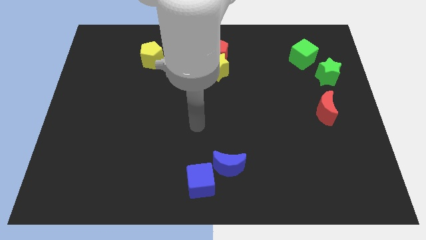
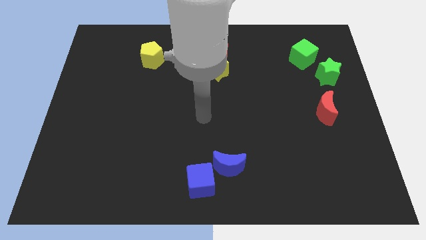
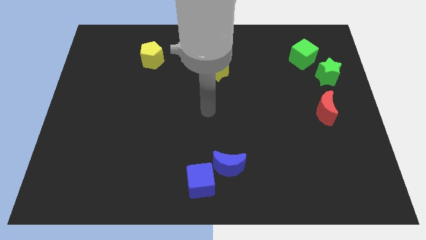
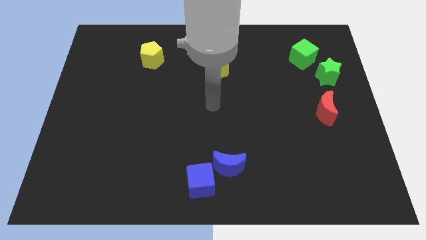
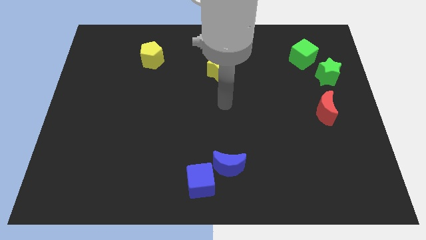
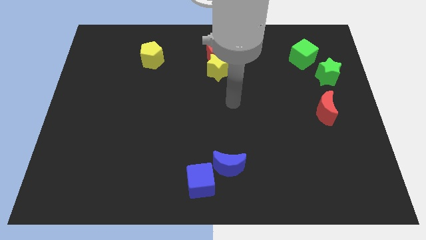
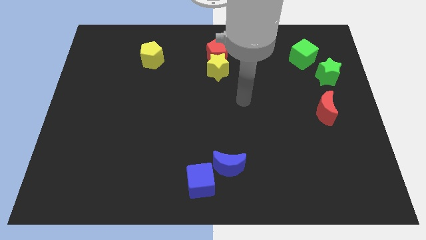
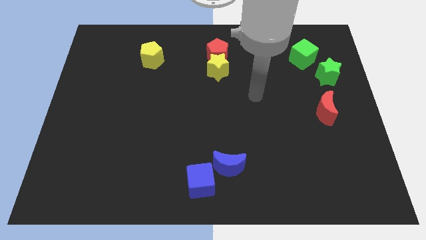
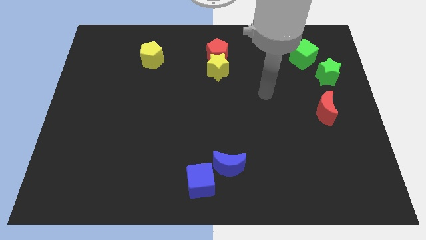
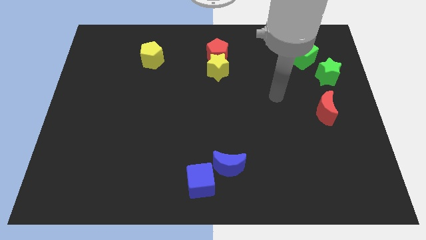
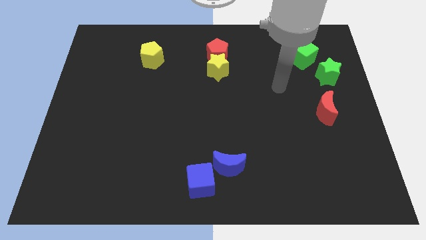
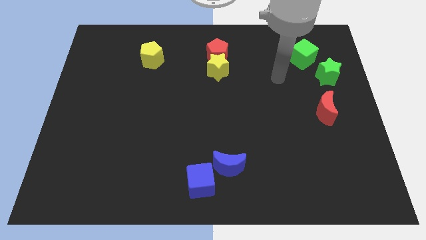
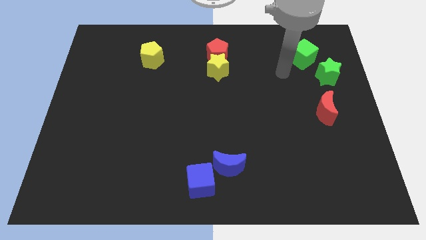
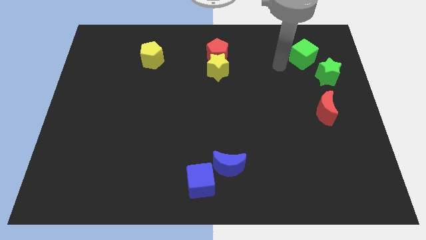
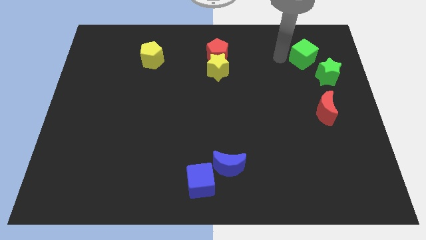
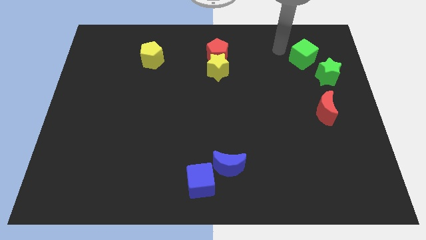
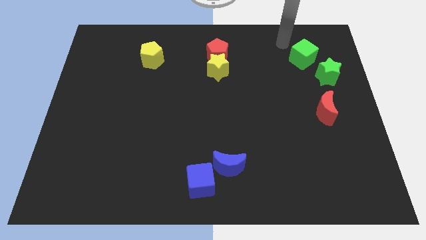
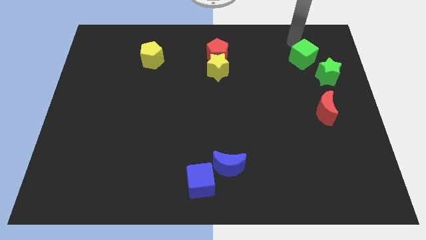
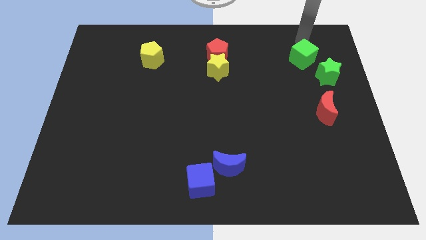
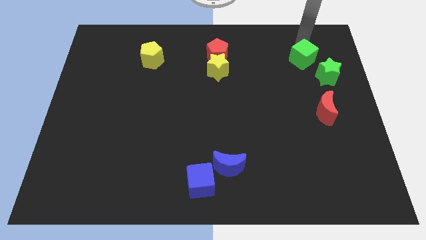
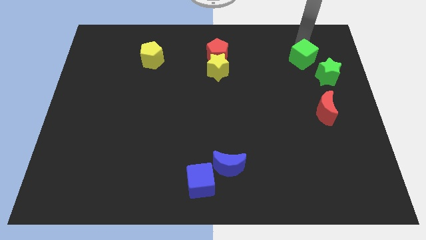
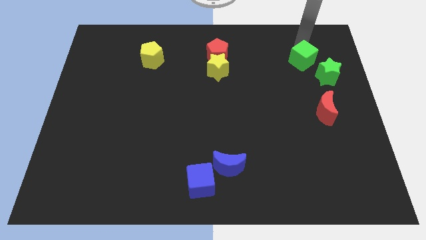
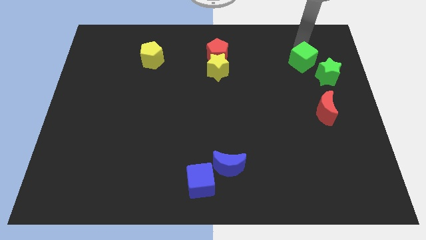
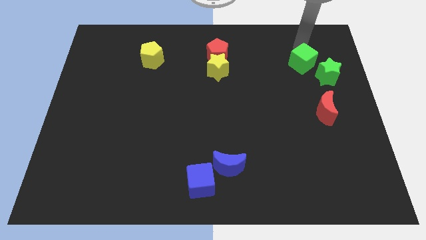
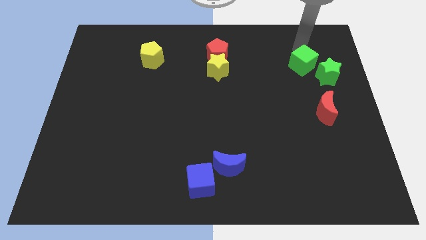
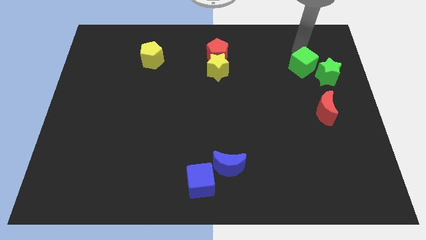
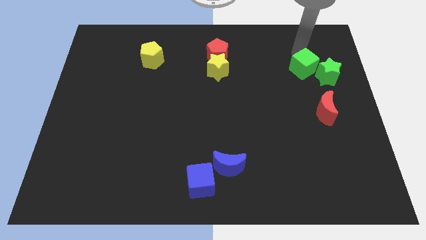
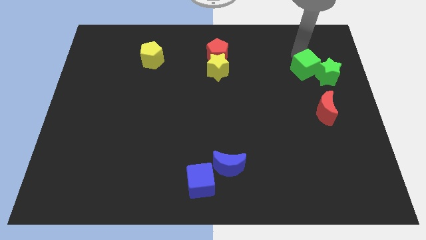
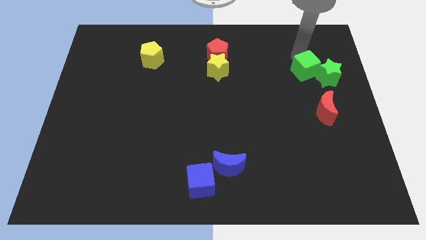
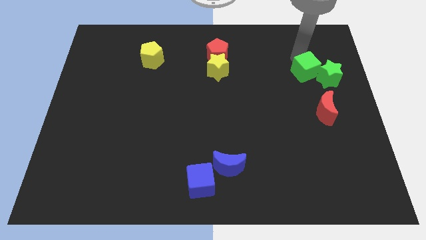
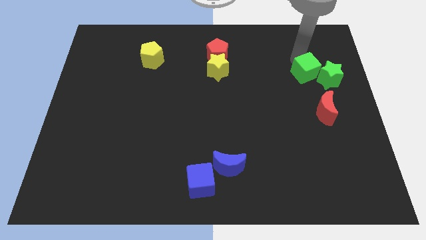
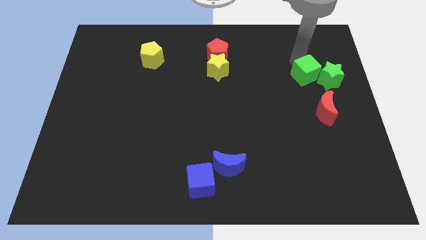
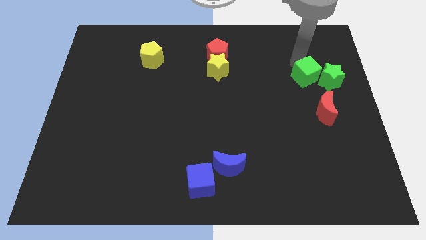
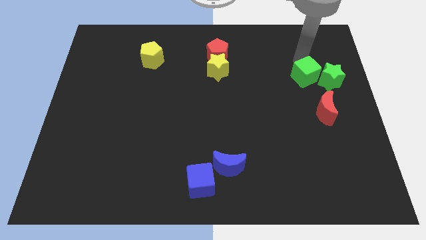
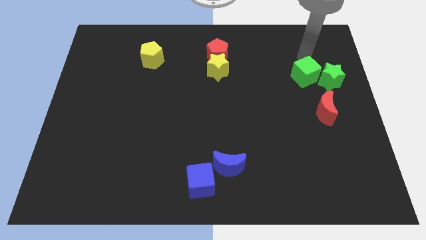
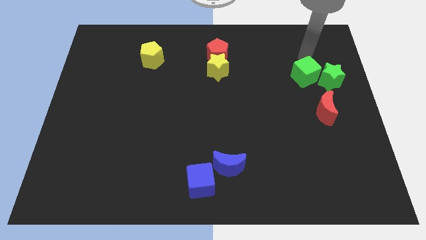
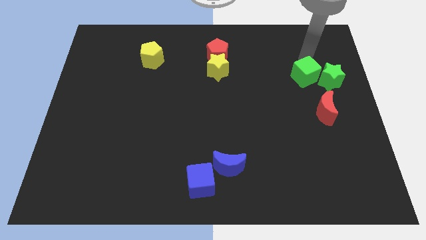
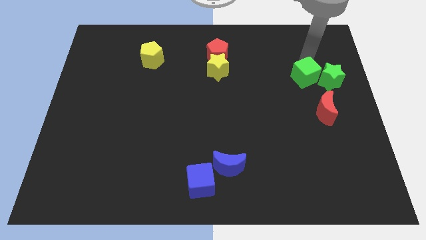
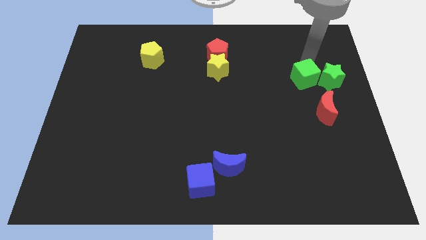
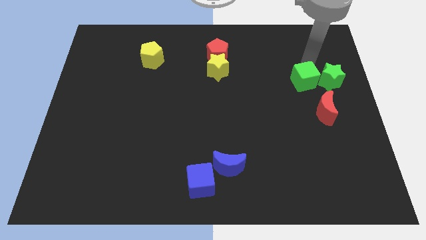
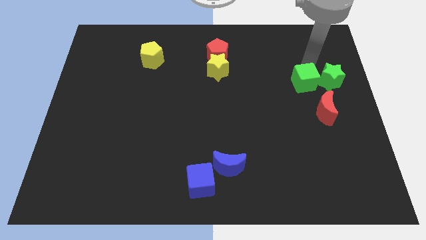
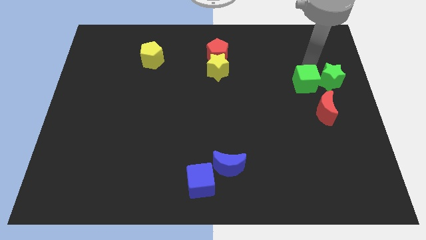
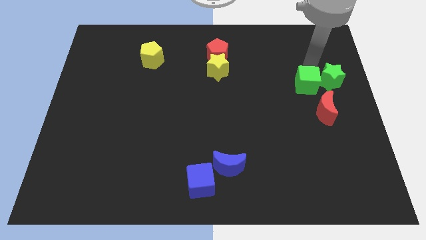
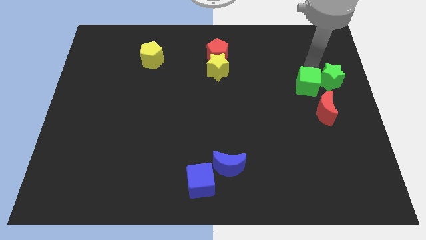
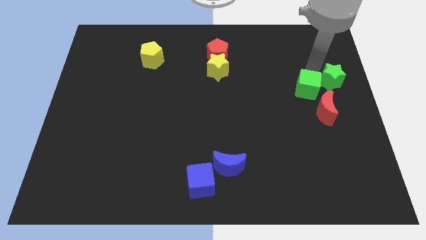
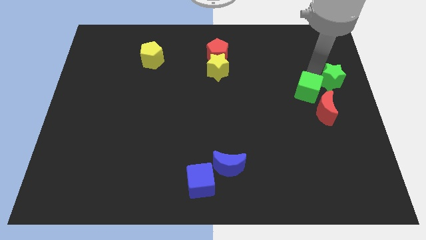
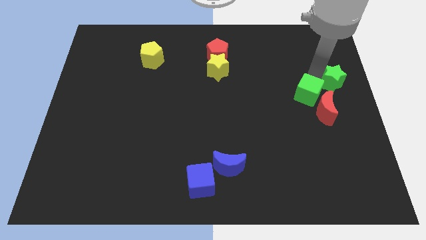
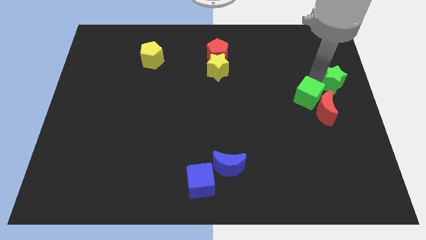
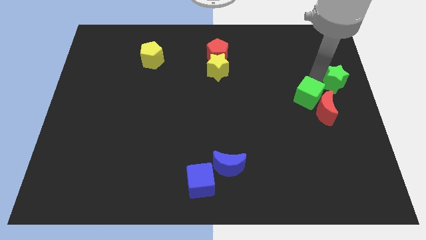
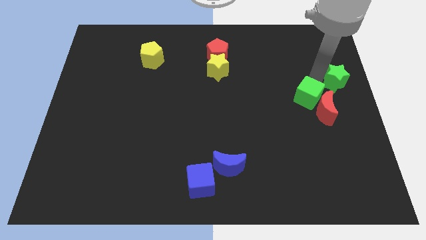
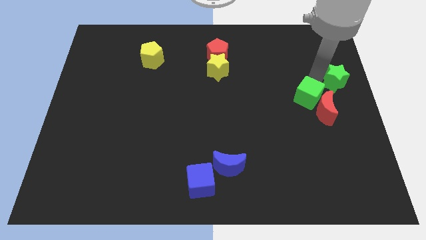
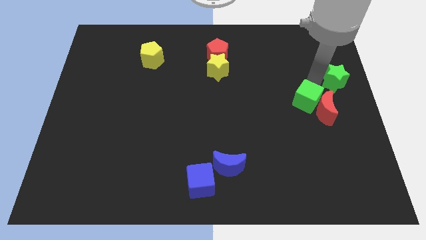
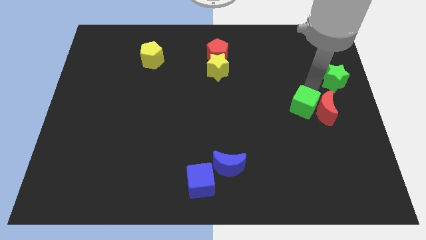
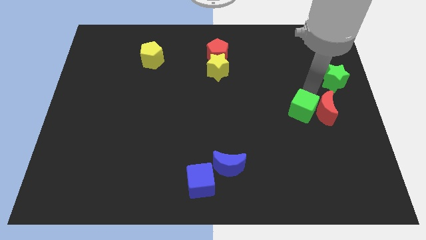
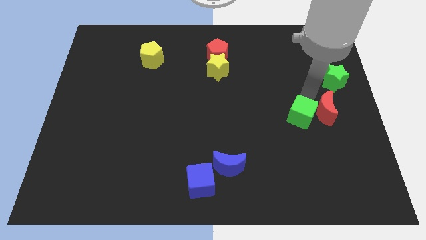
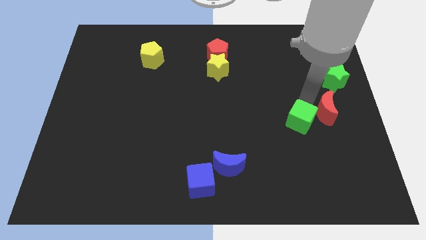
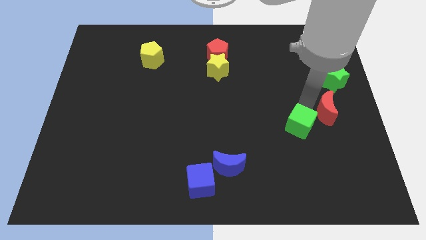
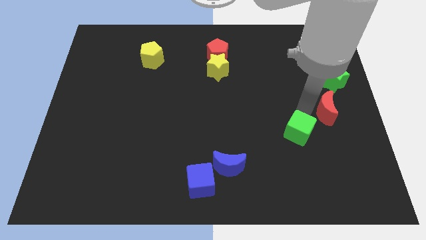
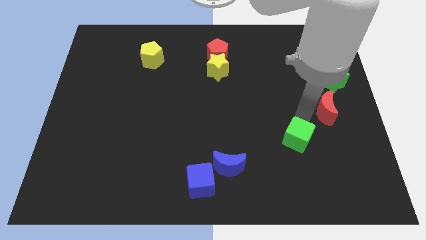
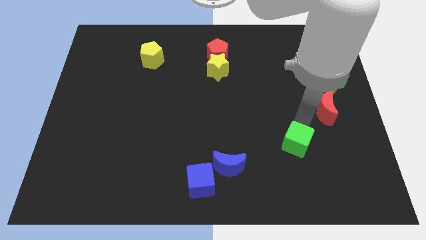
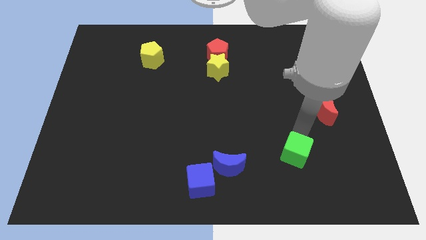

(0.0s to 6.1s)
move the green cube to the right of the blue moon

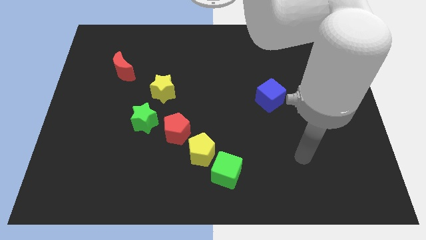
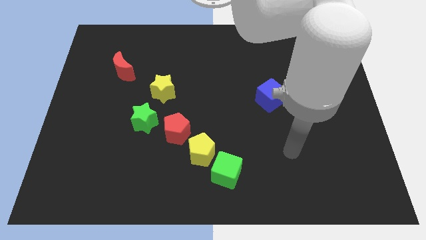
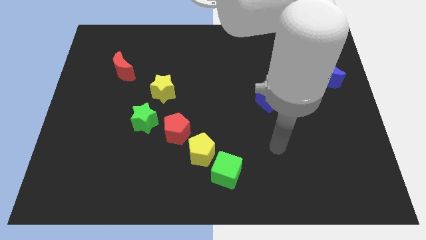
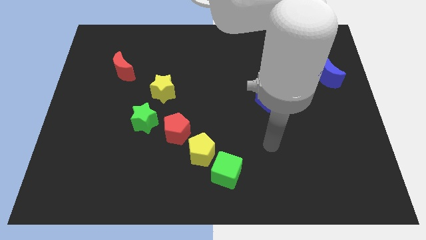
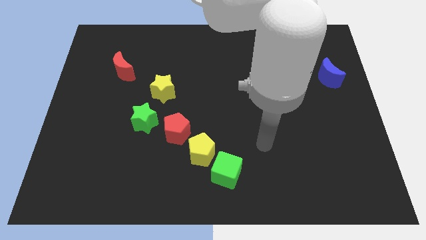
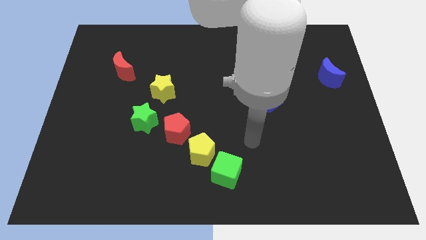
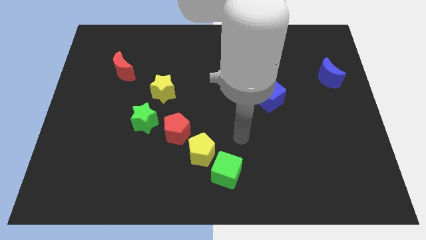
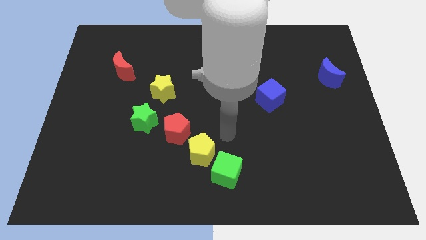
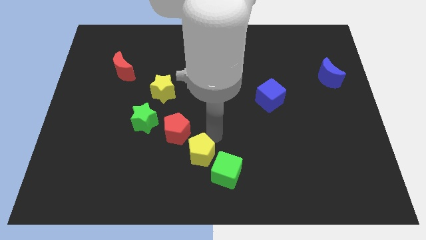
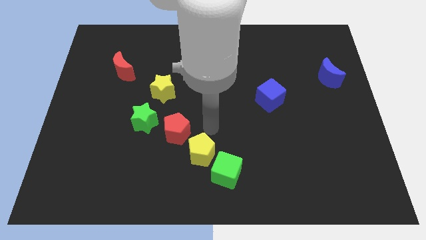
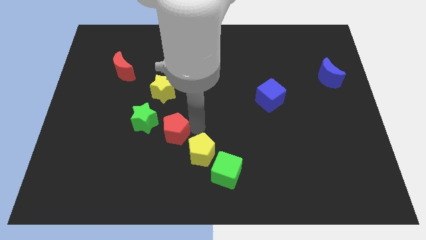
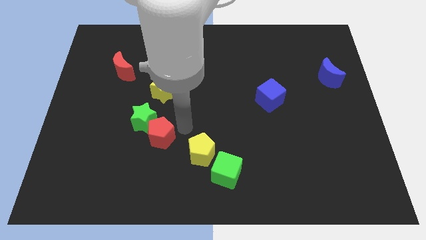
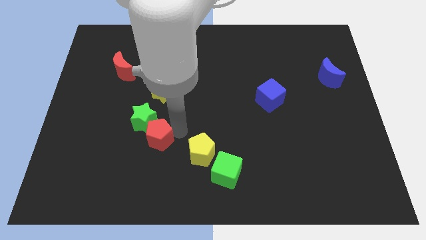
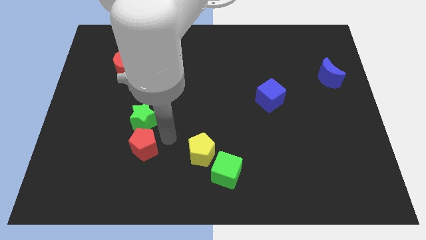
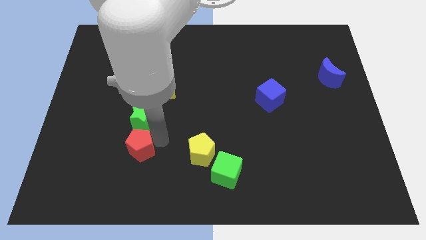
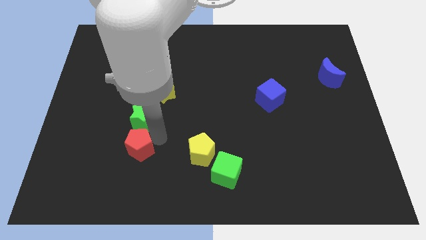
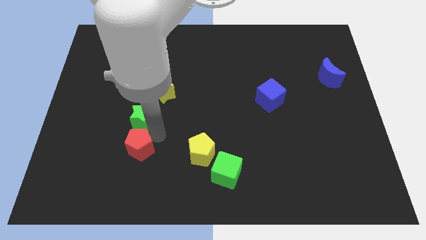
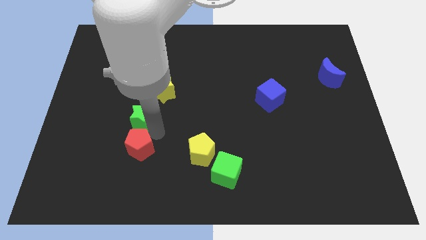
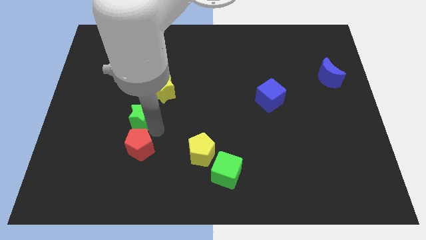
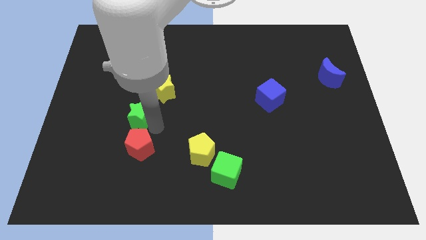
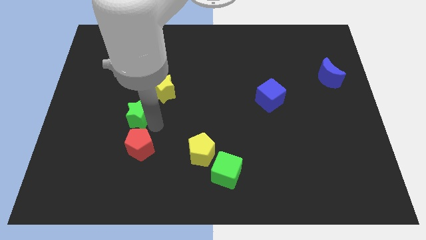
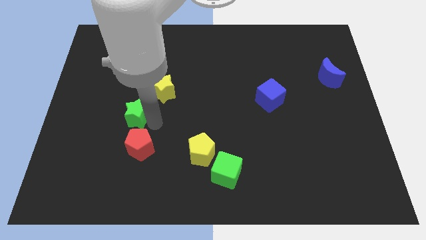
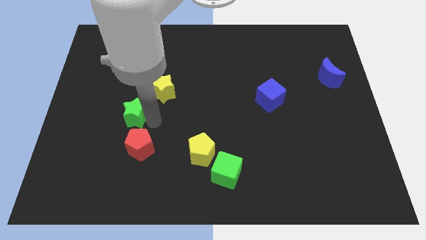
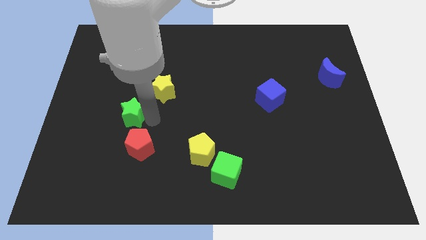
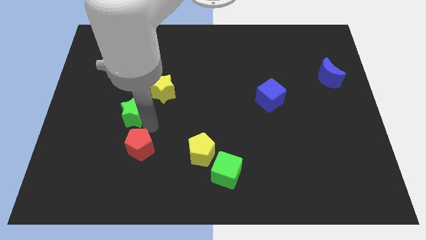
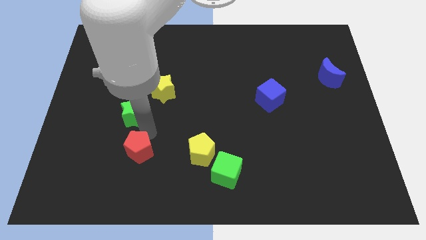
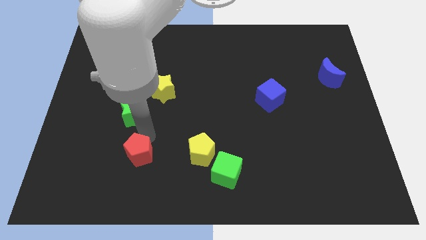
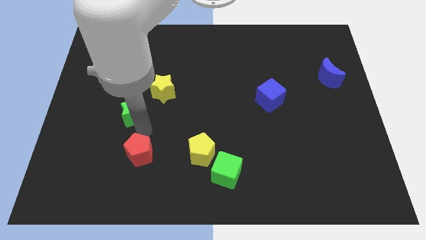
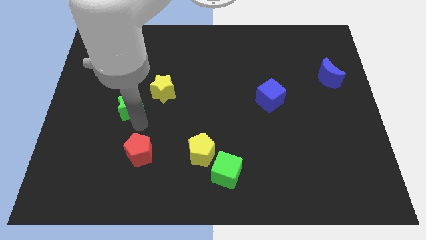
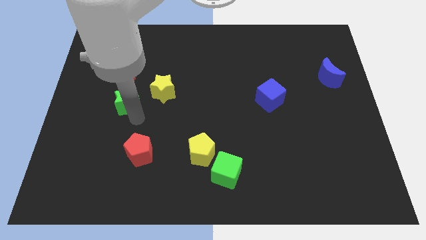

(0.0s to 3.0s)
move the green star left of the yellow star
